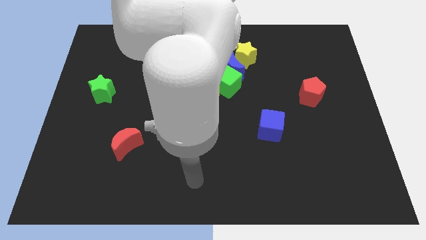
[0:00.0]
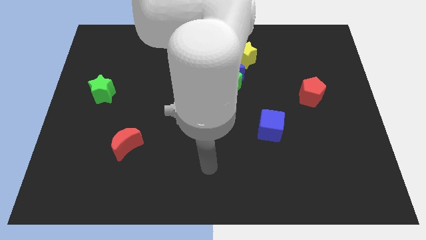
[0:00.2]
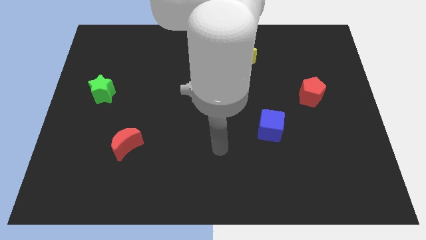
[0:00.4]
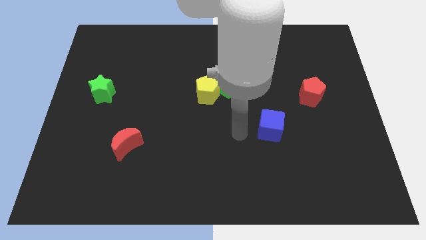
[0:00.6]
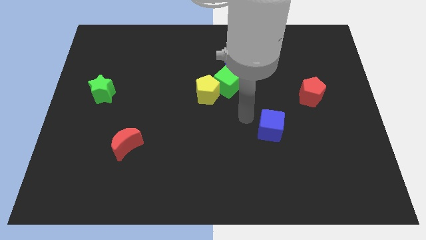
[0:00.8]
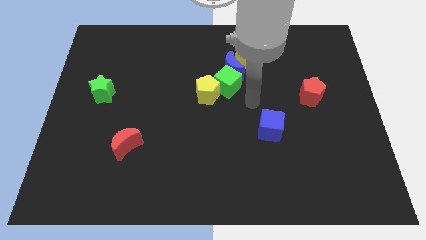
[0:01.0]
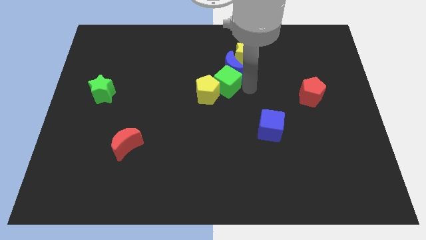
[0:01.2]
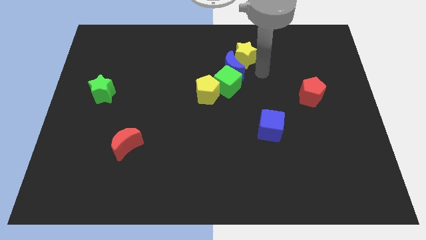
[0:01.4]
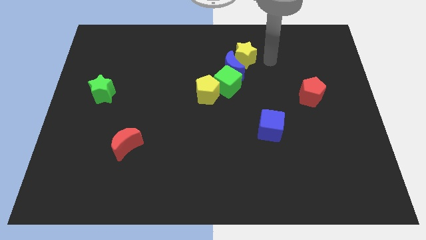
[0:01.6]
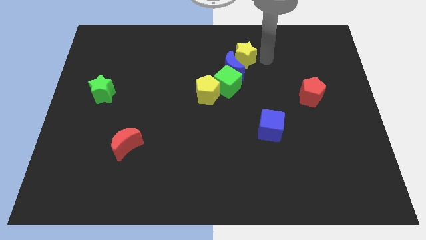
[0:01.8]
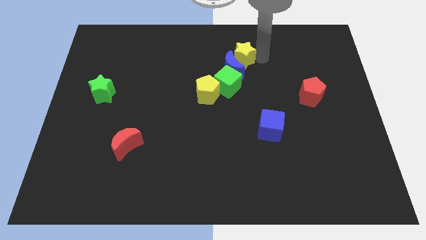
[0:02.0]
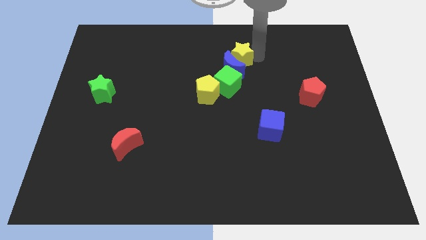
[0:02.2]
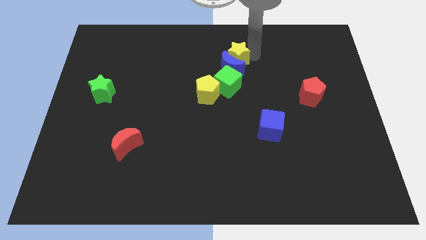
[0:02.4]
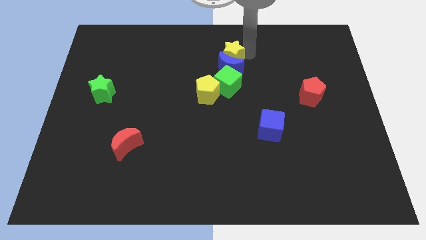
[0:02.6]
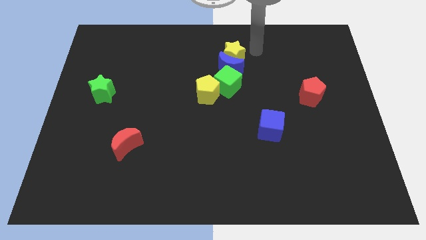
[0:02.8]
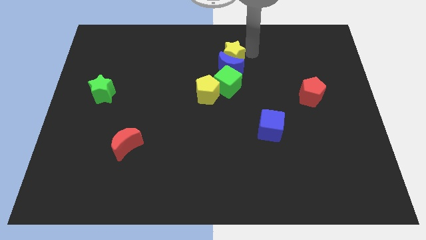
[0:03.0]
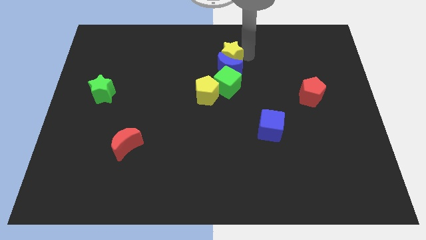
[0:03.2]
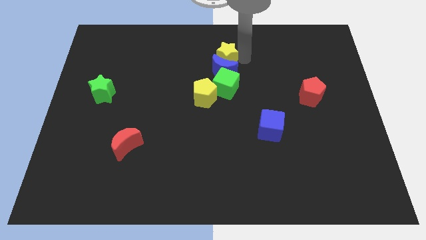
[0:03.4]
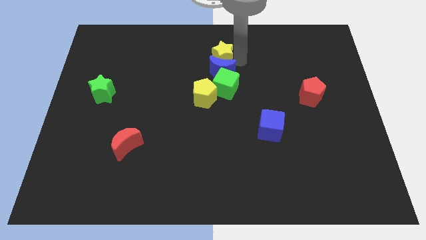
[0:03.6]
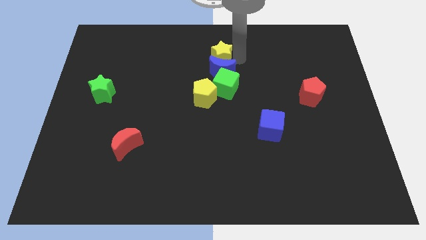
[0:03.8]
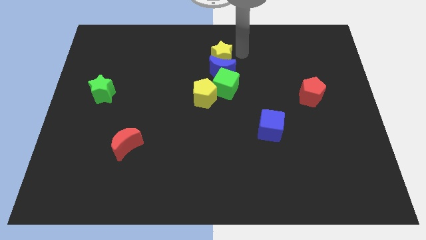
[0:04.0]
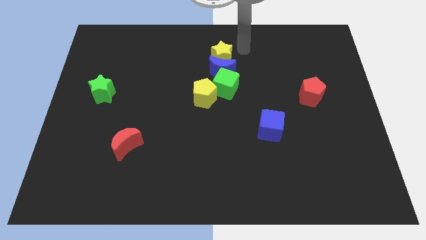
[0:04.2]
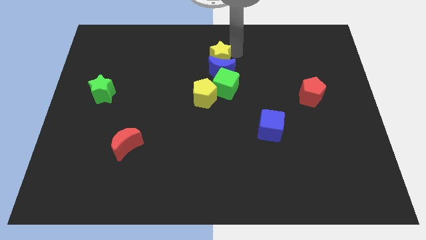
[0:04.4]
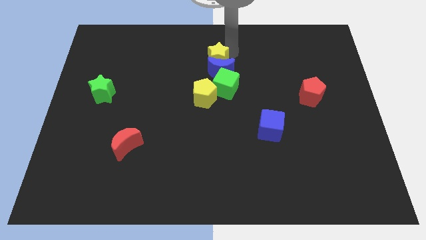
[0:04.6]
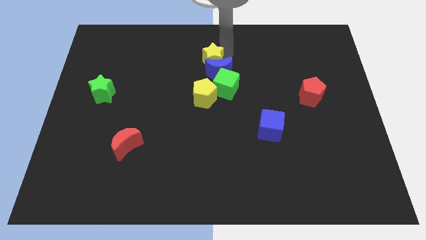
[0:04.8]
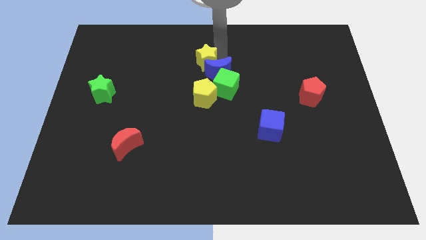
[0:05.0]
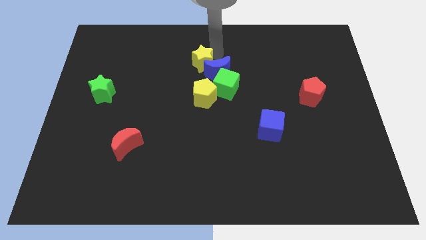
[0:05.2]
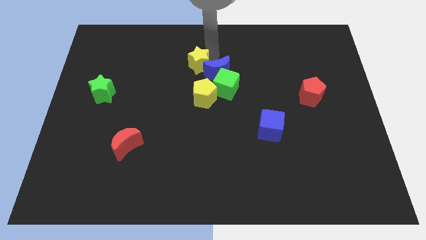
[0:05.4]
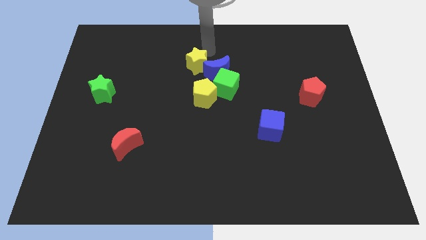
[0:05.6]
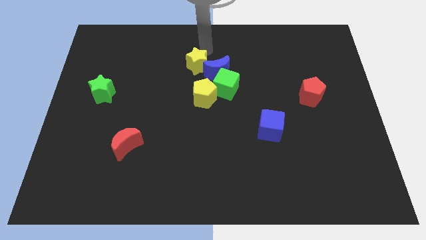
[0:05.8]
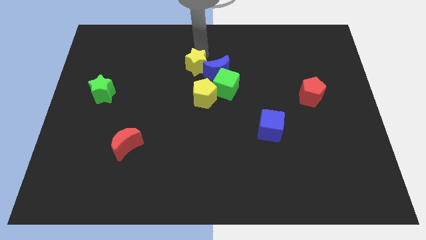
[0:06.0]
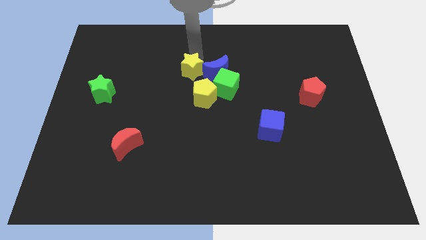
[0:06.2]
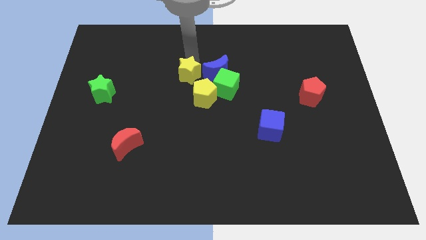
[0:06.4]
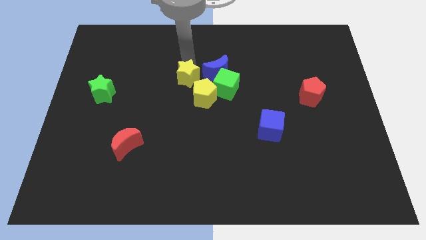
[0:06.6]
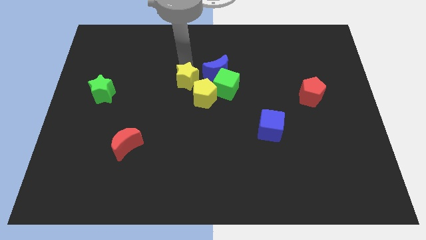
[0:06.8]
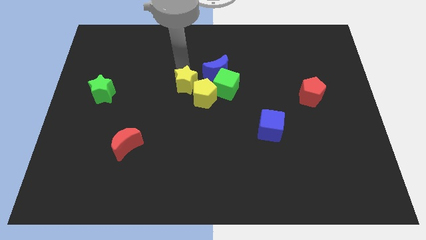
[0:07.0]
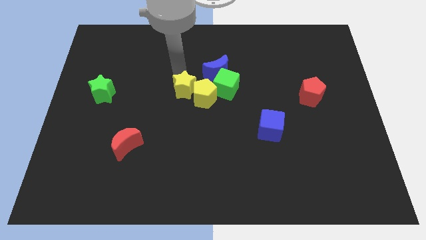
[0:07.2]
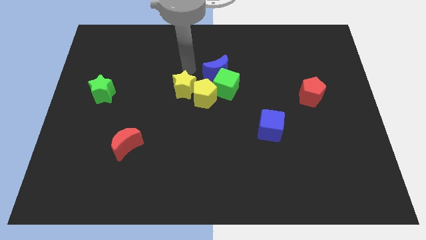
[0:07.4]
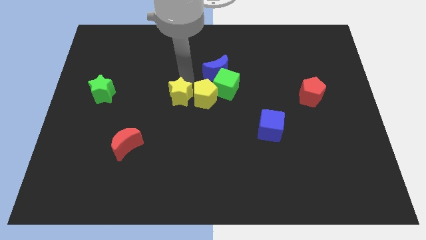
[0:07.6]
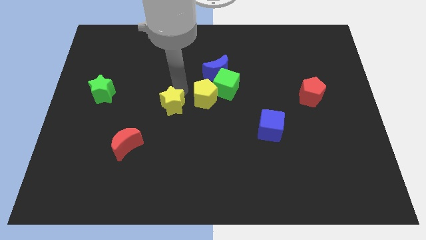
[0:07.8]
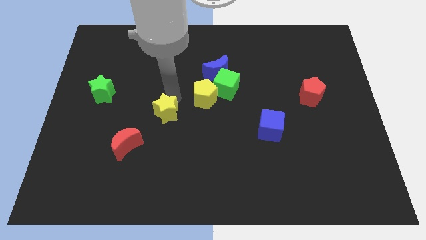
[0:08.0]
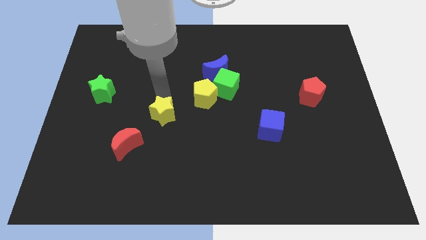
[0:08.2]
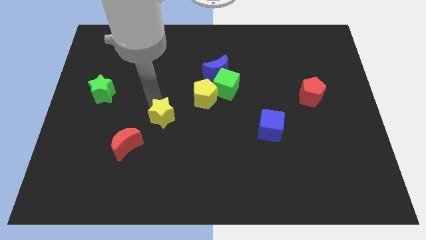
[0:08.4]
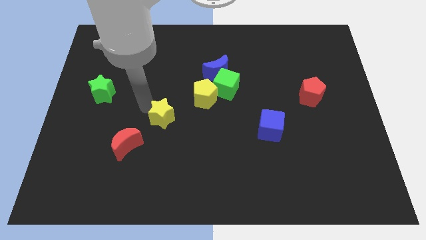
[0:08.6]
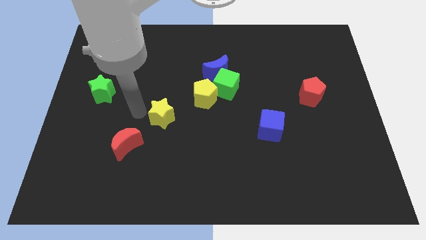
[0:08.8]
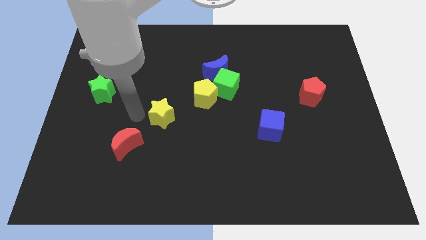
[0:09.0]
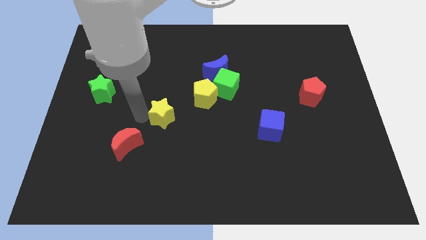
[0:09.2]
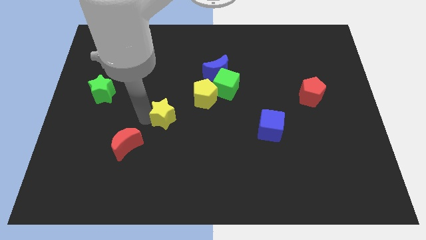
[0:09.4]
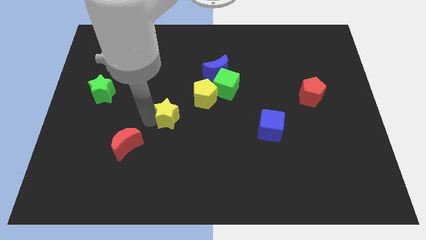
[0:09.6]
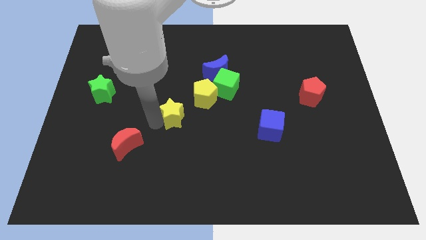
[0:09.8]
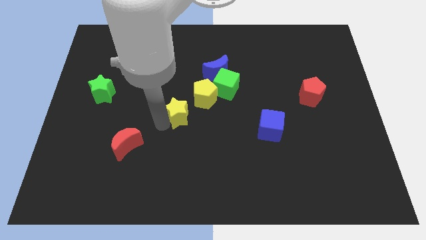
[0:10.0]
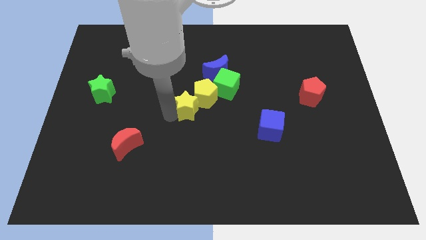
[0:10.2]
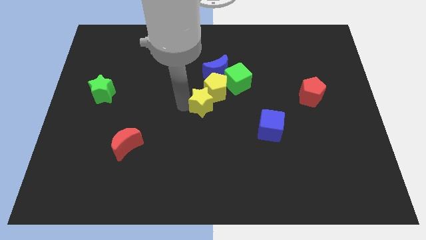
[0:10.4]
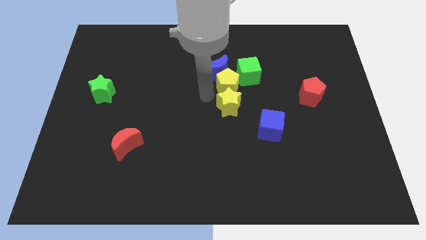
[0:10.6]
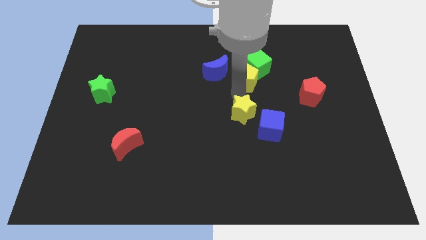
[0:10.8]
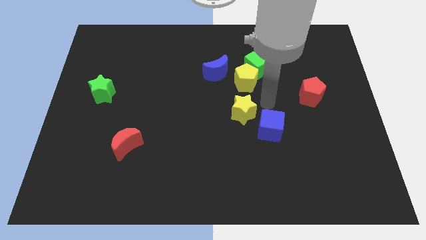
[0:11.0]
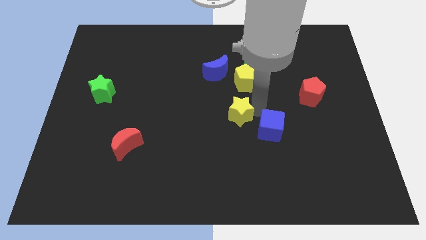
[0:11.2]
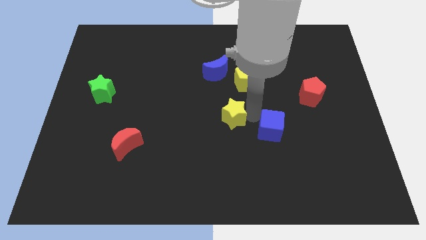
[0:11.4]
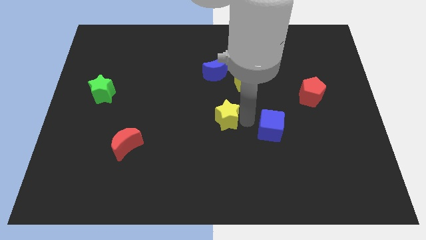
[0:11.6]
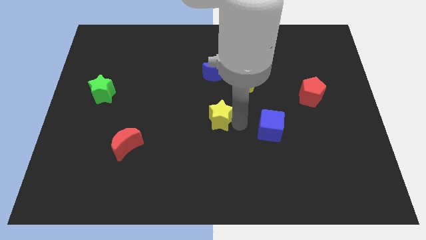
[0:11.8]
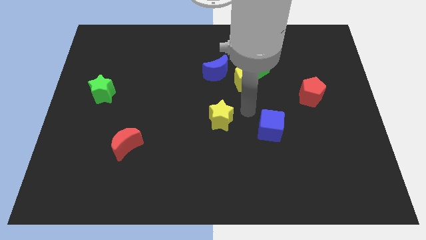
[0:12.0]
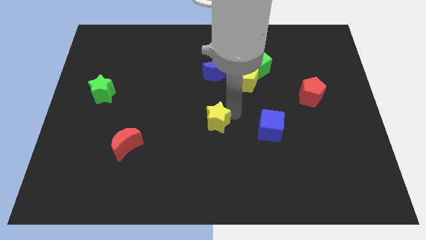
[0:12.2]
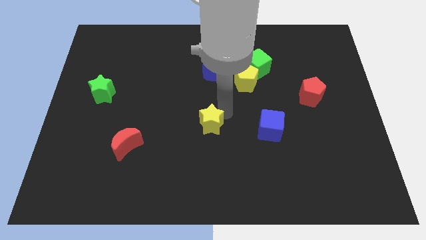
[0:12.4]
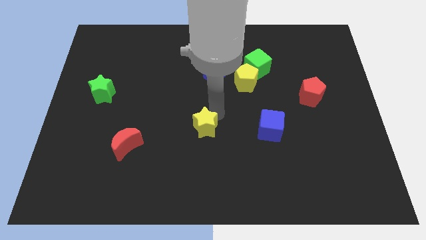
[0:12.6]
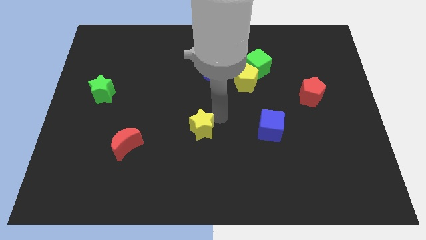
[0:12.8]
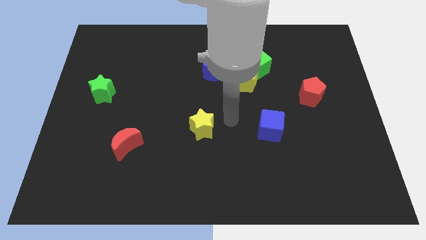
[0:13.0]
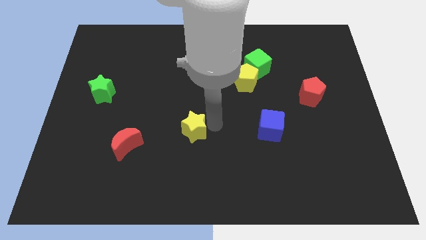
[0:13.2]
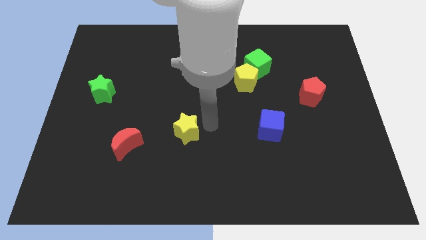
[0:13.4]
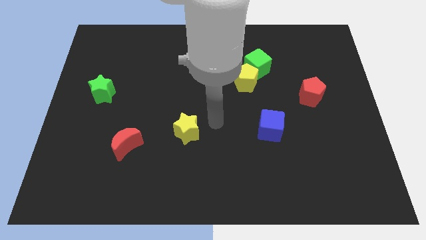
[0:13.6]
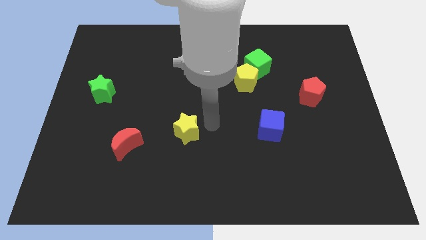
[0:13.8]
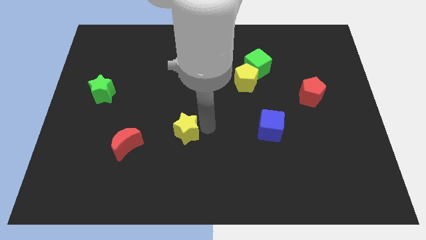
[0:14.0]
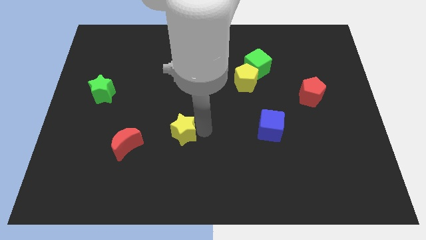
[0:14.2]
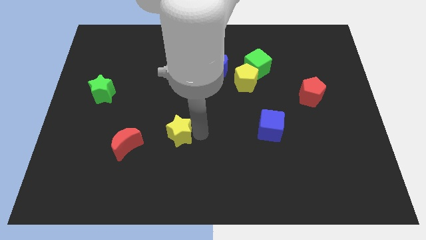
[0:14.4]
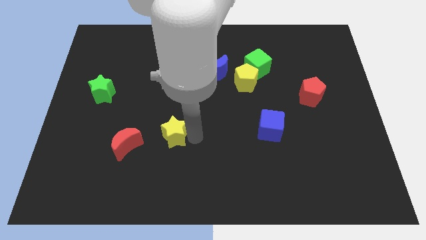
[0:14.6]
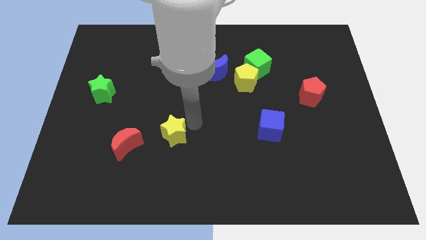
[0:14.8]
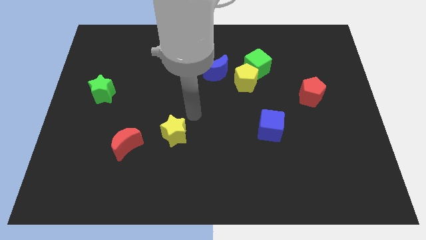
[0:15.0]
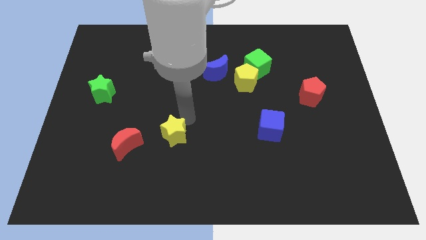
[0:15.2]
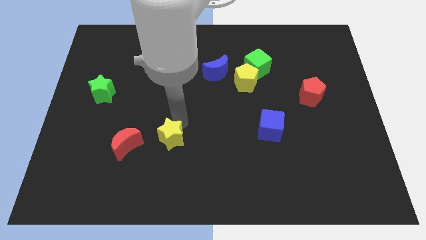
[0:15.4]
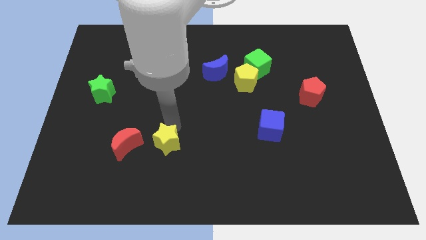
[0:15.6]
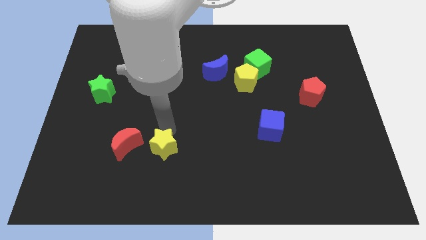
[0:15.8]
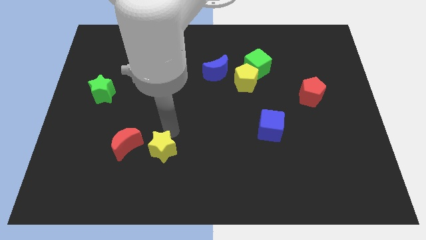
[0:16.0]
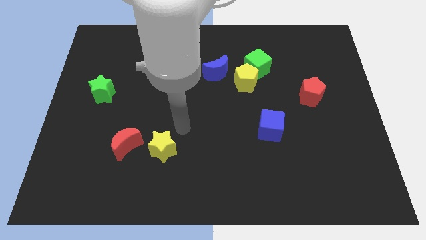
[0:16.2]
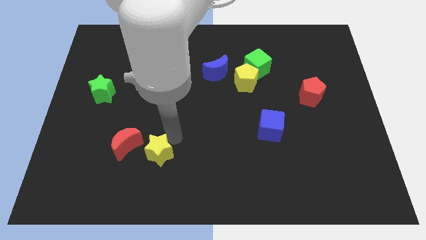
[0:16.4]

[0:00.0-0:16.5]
push the yellow star to the bottom right side of the red moon

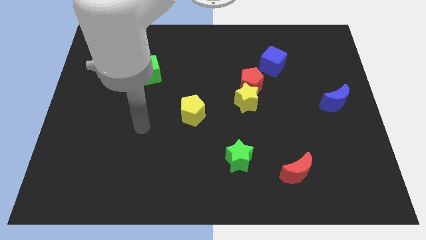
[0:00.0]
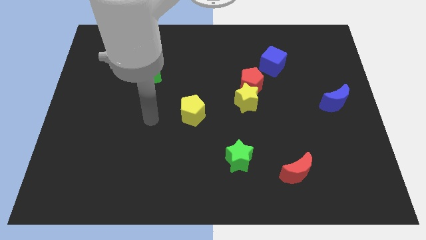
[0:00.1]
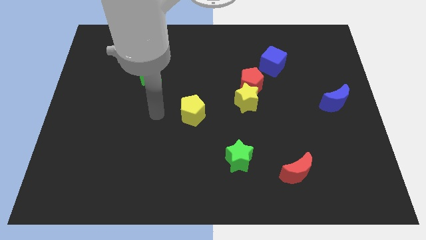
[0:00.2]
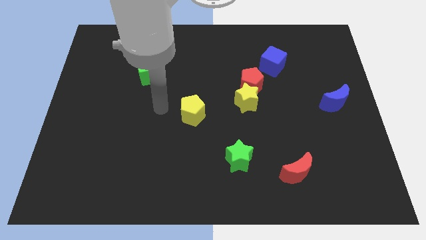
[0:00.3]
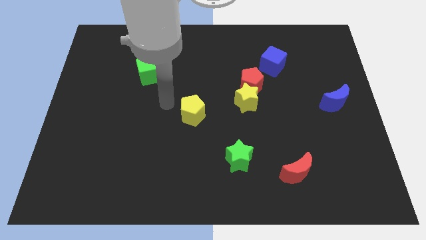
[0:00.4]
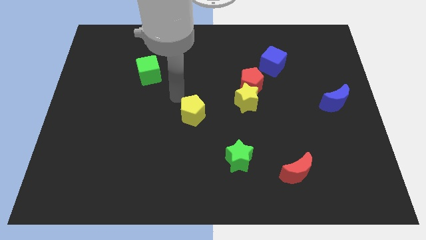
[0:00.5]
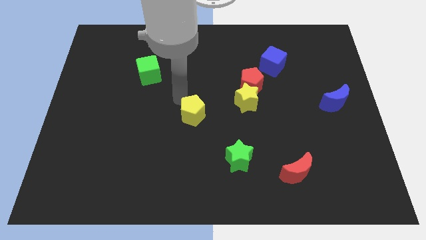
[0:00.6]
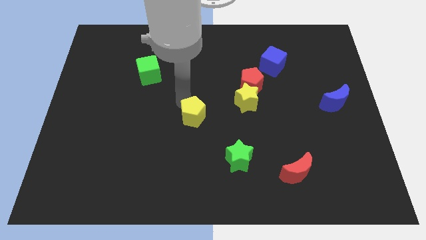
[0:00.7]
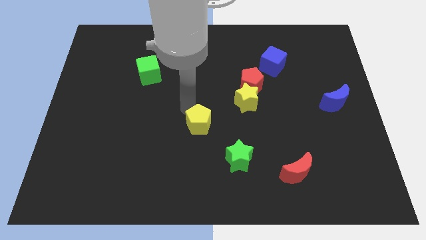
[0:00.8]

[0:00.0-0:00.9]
push the yellow pentagon to the top left of the green star
